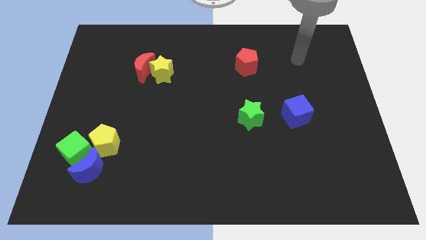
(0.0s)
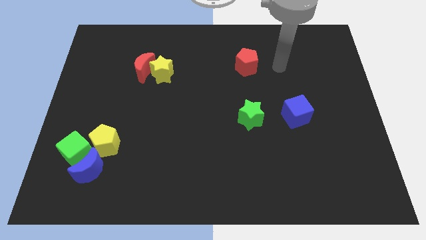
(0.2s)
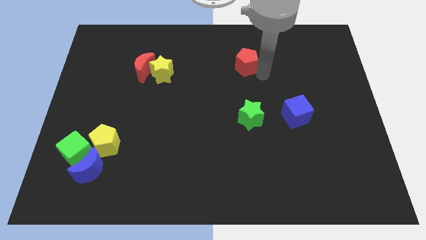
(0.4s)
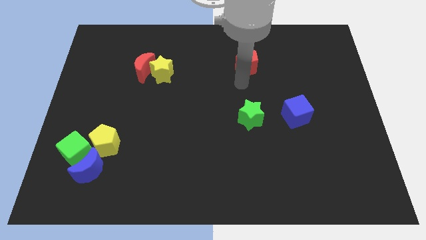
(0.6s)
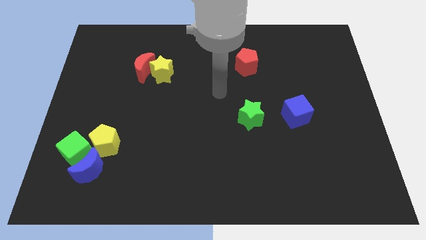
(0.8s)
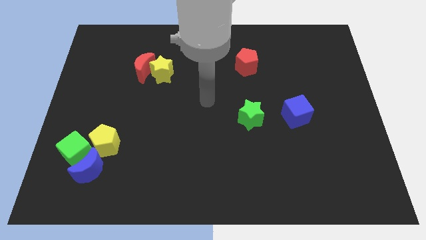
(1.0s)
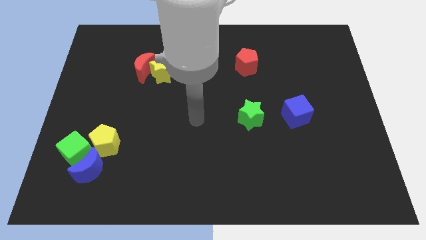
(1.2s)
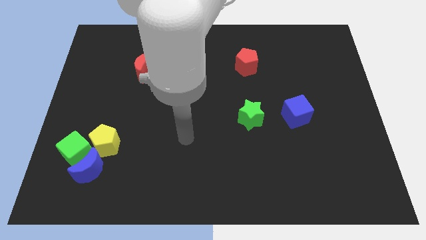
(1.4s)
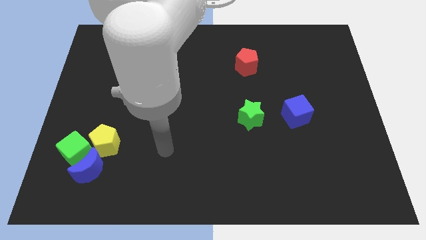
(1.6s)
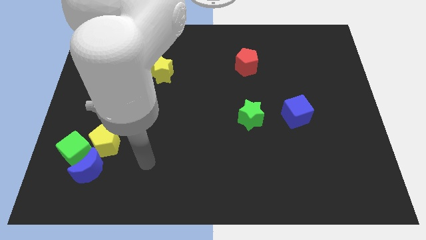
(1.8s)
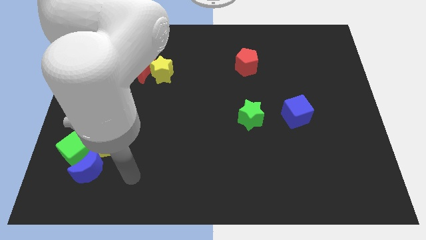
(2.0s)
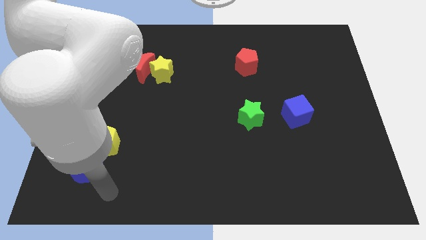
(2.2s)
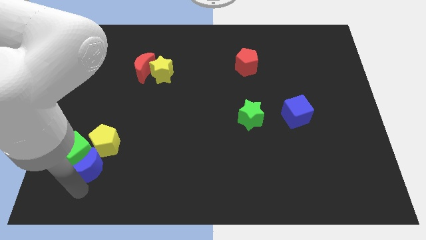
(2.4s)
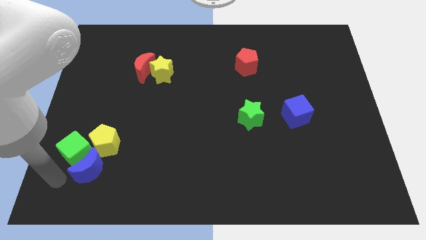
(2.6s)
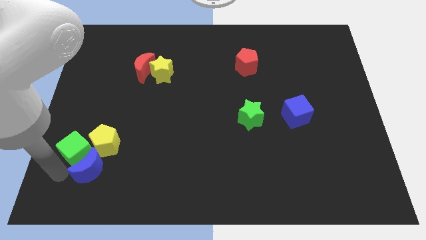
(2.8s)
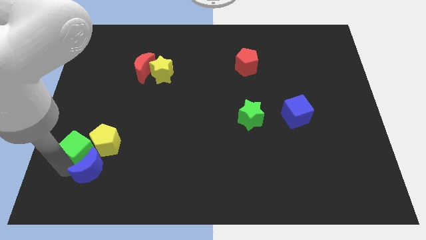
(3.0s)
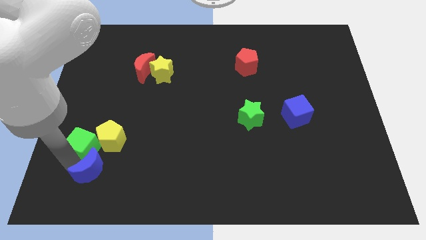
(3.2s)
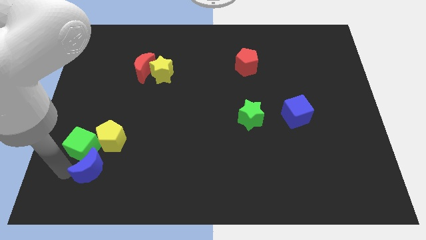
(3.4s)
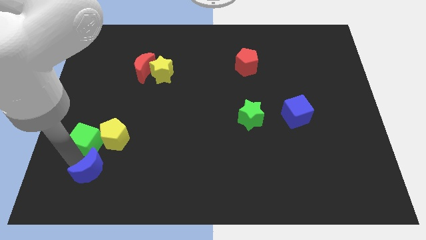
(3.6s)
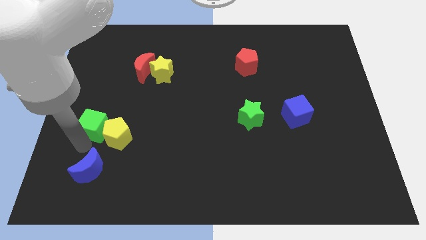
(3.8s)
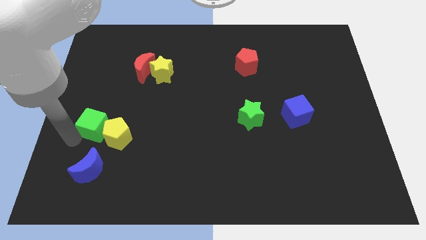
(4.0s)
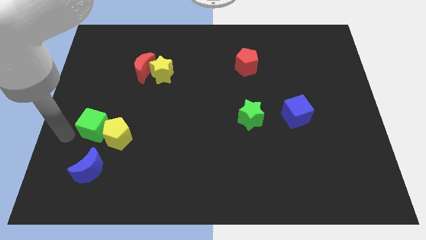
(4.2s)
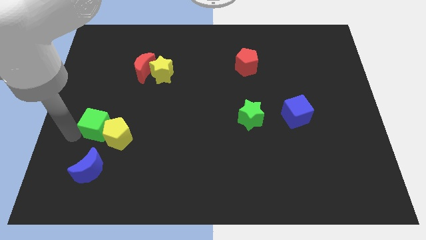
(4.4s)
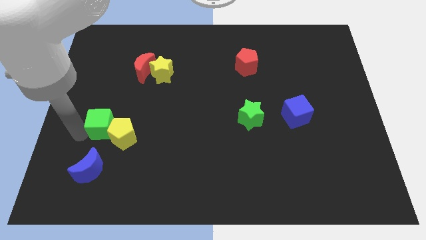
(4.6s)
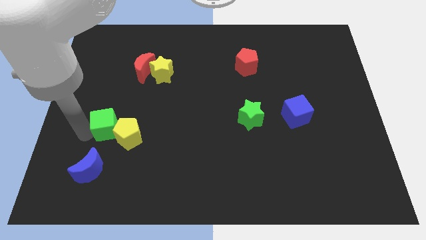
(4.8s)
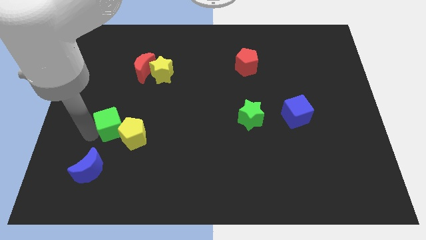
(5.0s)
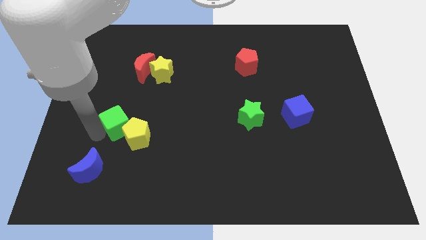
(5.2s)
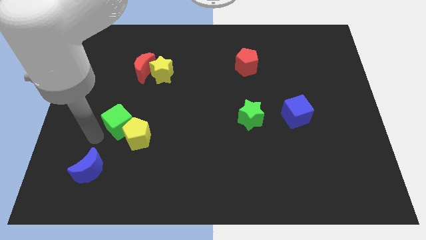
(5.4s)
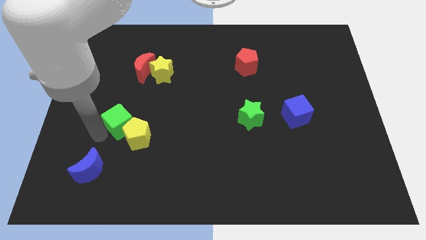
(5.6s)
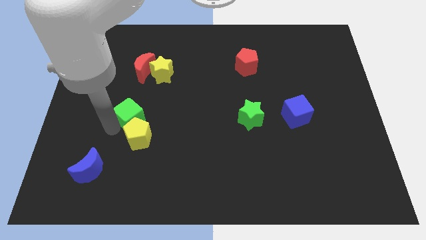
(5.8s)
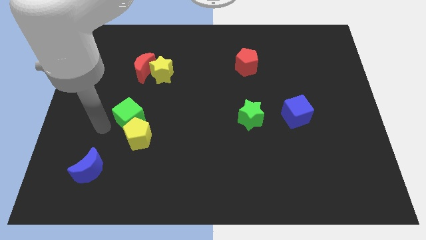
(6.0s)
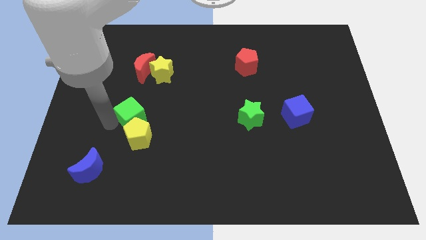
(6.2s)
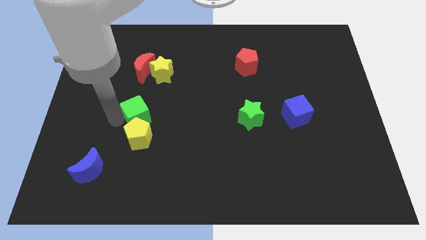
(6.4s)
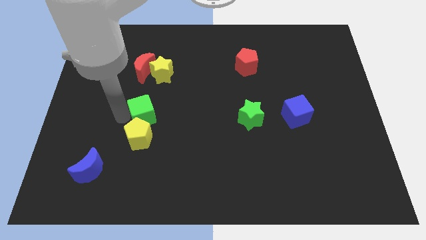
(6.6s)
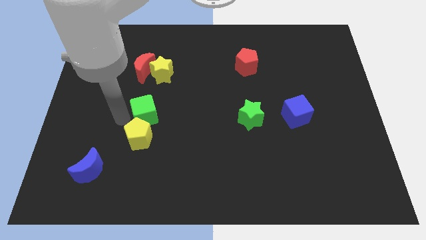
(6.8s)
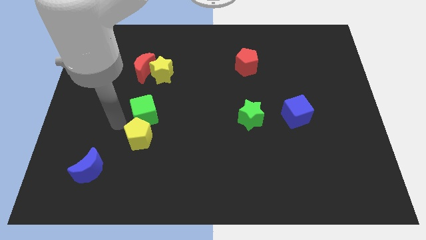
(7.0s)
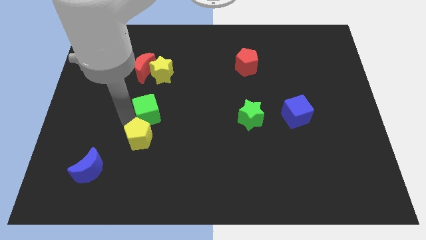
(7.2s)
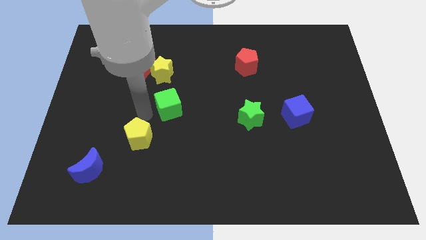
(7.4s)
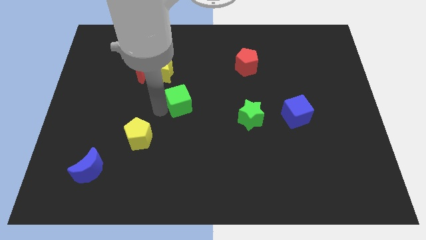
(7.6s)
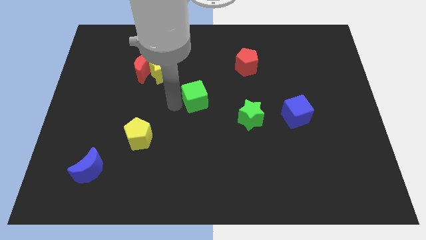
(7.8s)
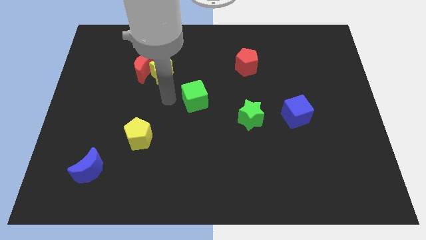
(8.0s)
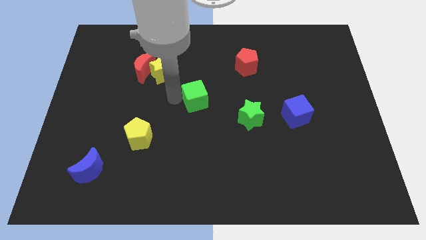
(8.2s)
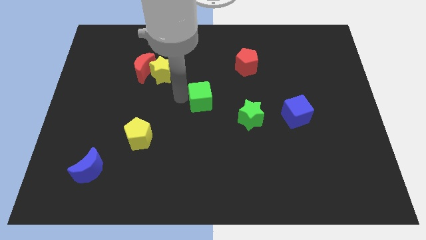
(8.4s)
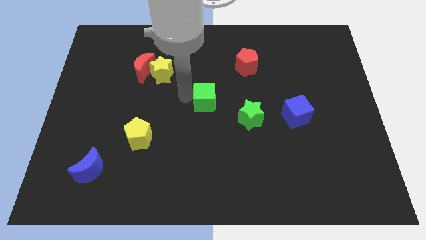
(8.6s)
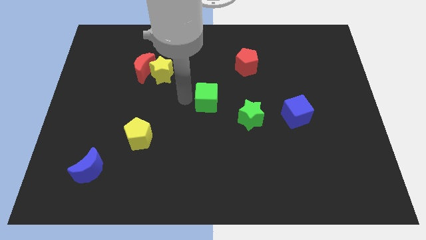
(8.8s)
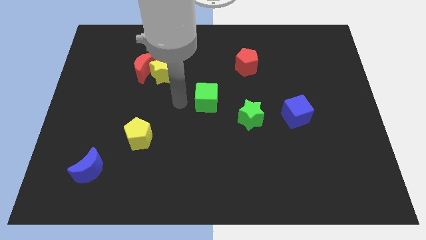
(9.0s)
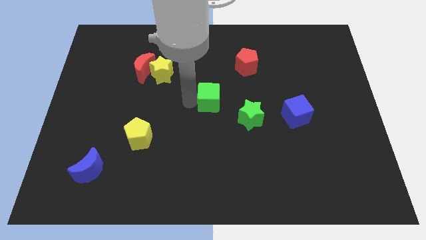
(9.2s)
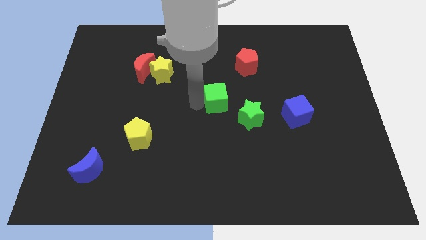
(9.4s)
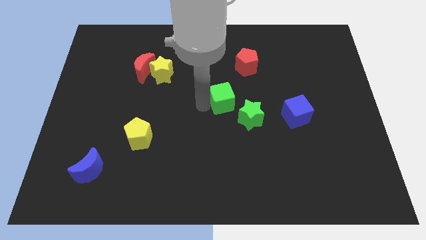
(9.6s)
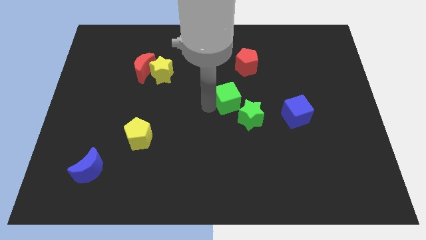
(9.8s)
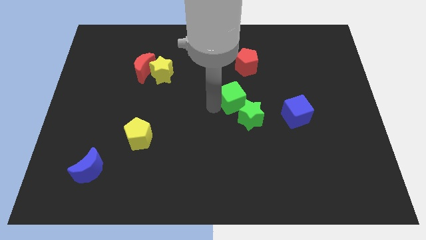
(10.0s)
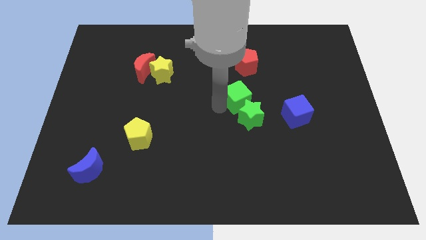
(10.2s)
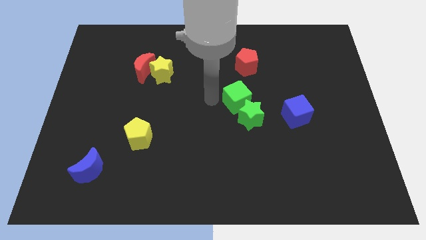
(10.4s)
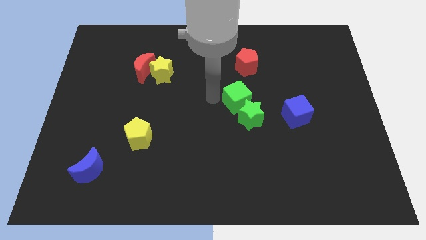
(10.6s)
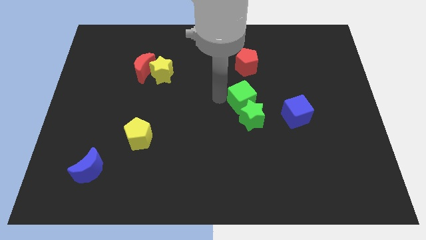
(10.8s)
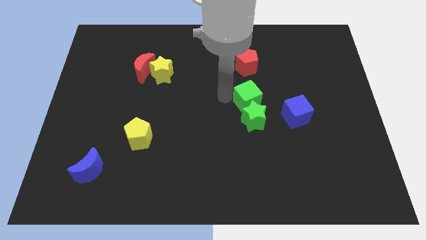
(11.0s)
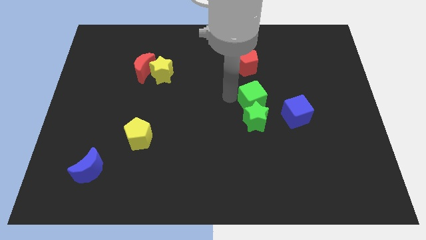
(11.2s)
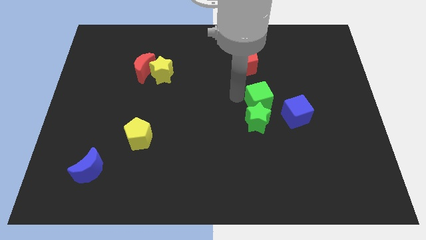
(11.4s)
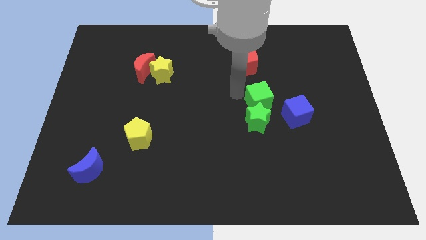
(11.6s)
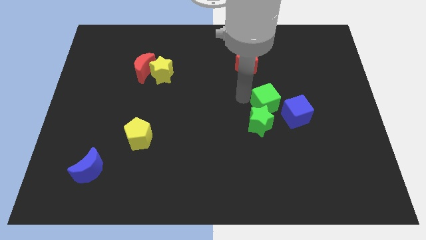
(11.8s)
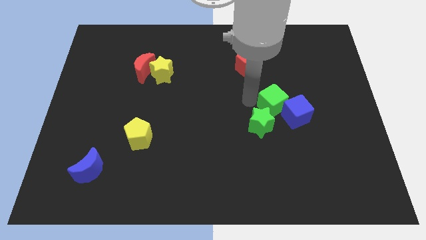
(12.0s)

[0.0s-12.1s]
slide the green cube close to the blue cube

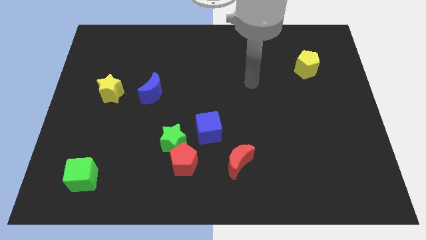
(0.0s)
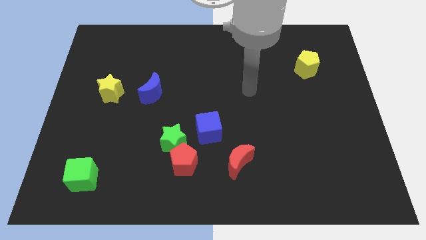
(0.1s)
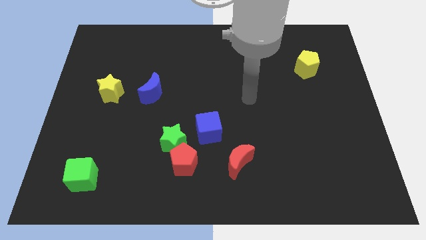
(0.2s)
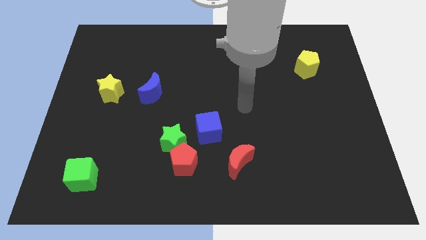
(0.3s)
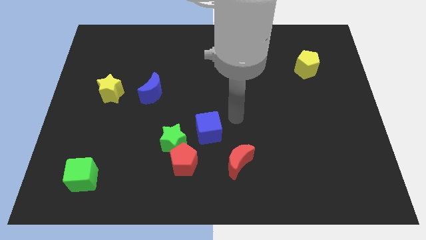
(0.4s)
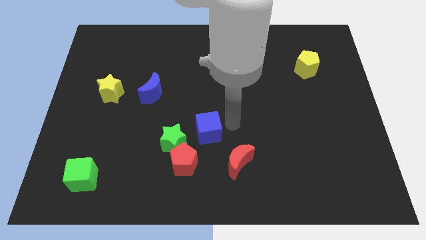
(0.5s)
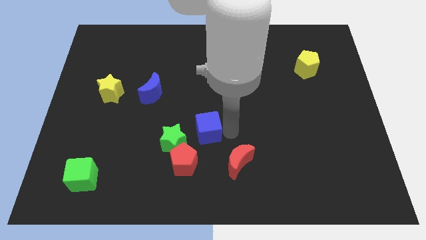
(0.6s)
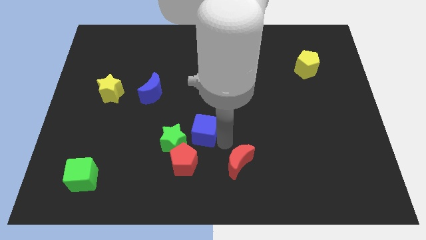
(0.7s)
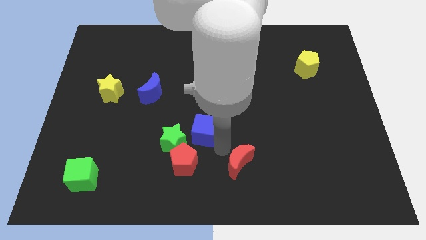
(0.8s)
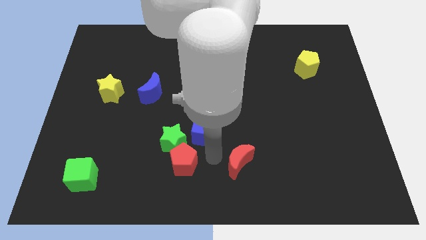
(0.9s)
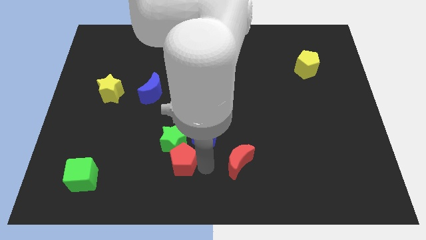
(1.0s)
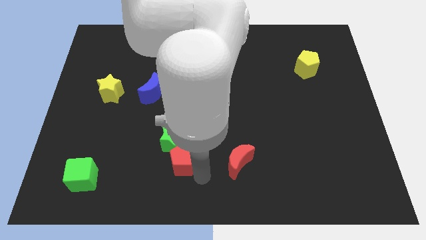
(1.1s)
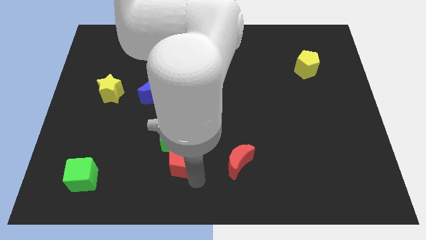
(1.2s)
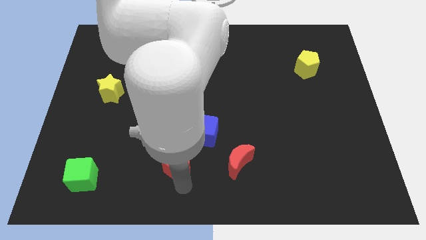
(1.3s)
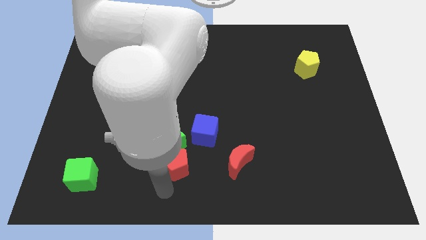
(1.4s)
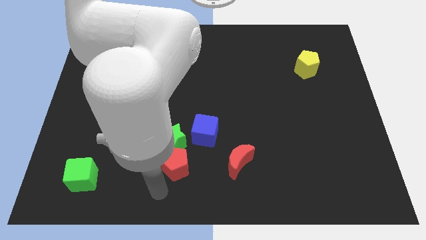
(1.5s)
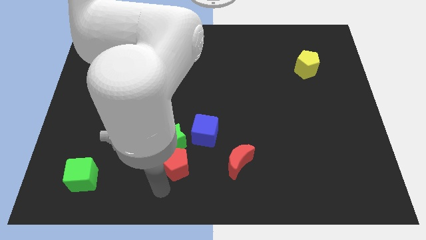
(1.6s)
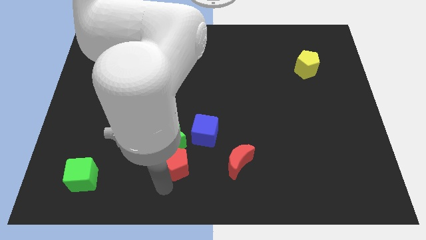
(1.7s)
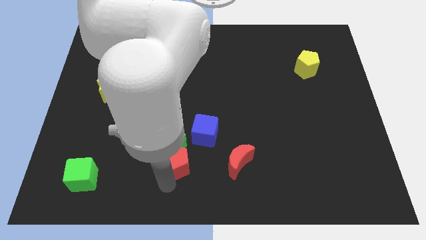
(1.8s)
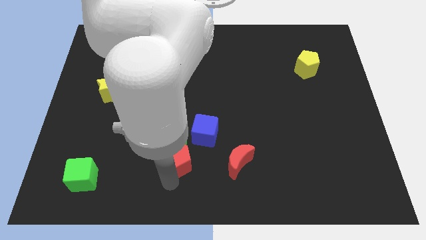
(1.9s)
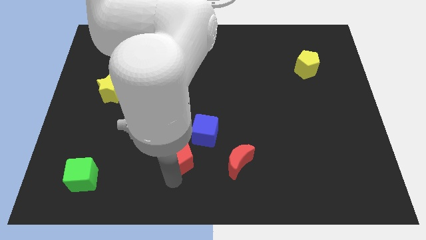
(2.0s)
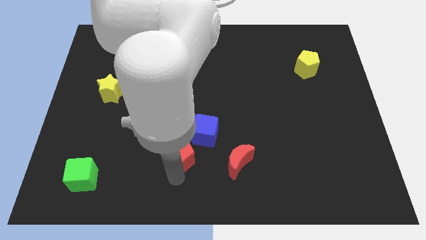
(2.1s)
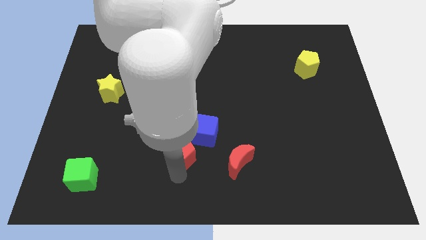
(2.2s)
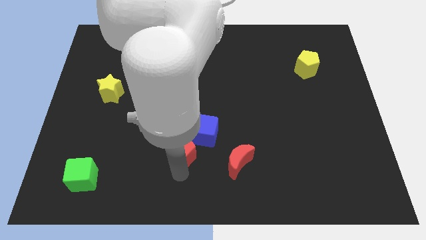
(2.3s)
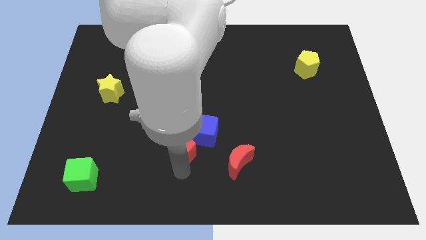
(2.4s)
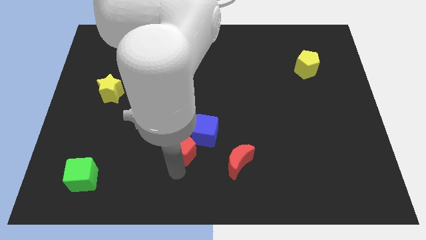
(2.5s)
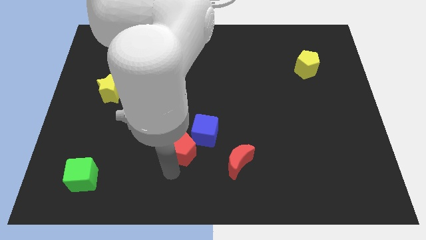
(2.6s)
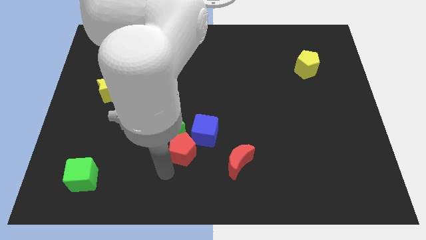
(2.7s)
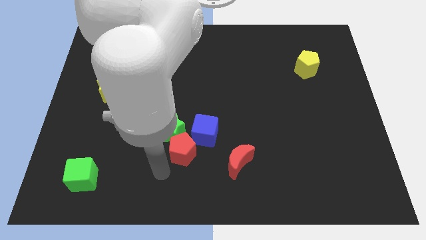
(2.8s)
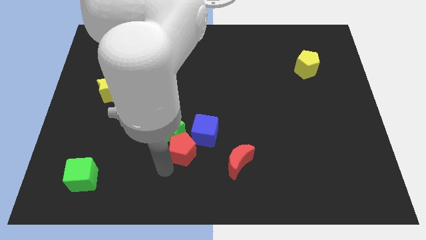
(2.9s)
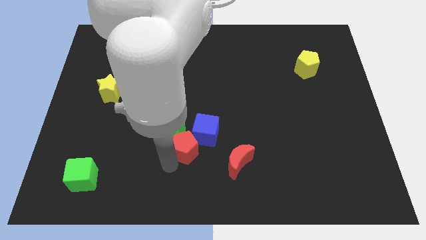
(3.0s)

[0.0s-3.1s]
put the red pentagon close to the blue cube
